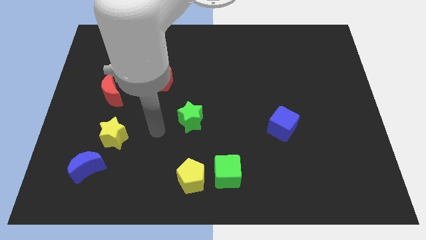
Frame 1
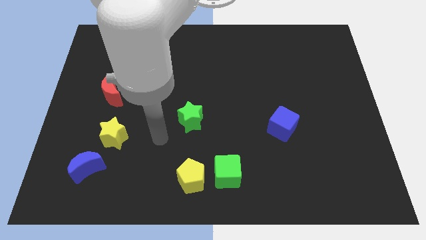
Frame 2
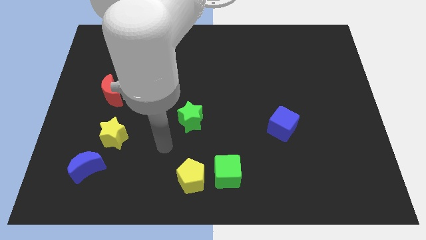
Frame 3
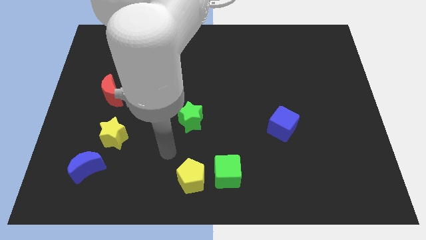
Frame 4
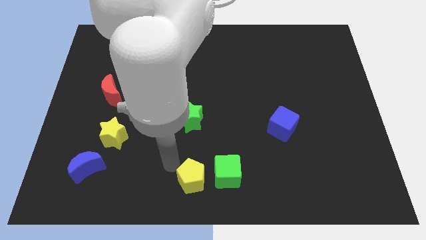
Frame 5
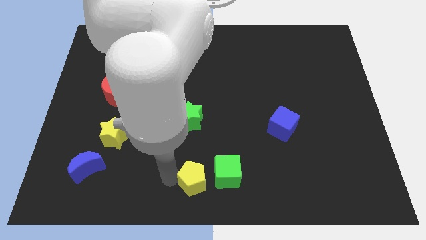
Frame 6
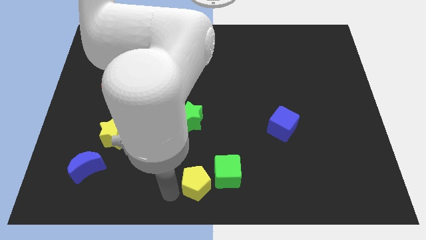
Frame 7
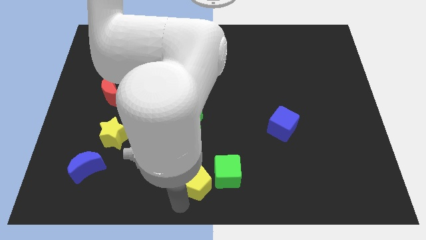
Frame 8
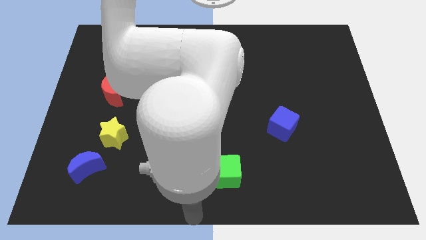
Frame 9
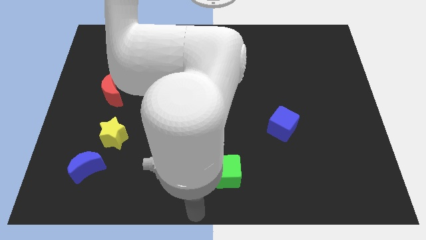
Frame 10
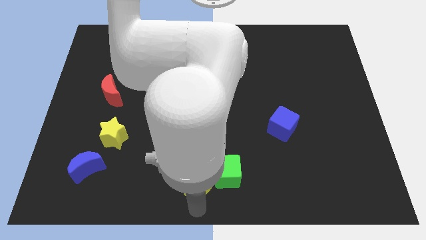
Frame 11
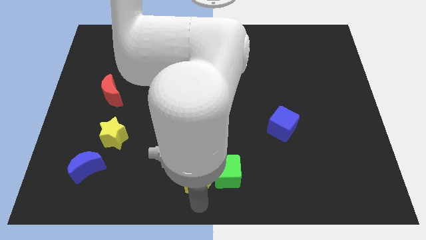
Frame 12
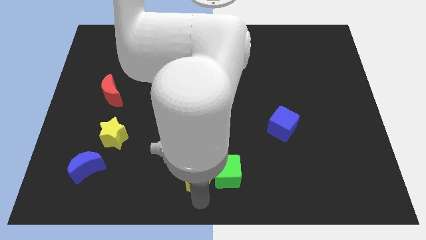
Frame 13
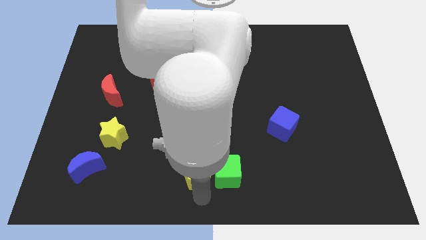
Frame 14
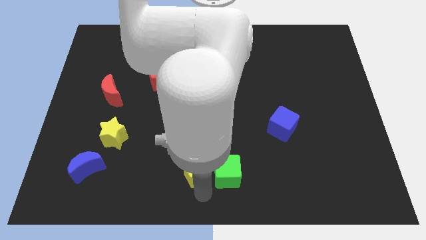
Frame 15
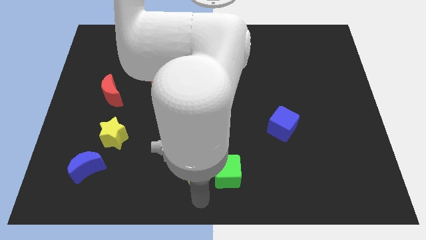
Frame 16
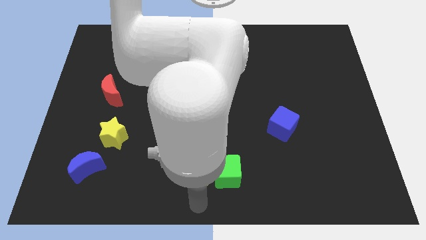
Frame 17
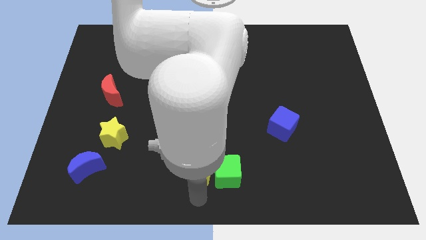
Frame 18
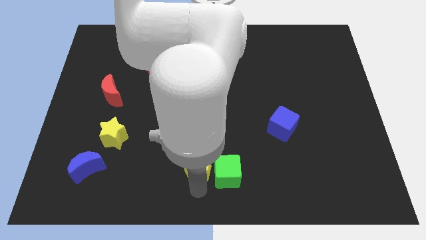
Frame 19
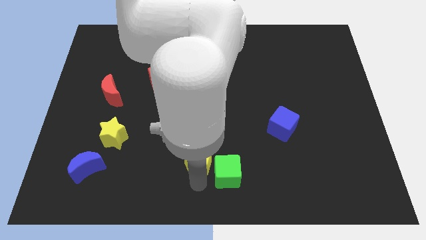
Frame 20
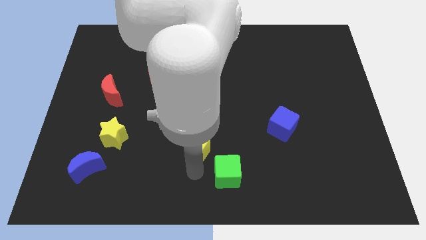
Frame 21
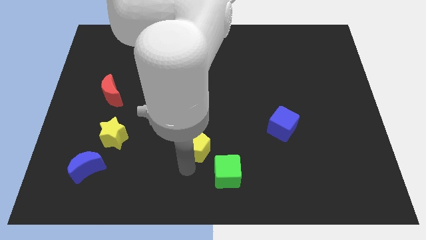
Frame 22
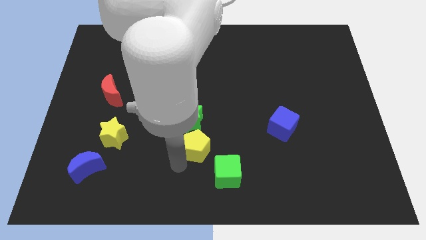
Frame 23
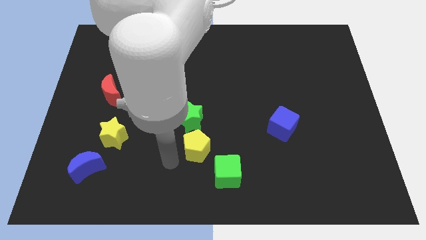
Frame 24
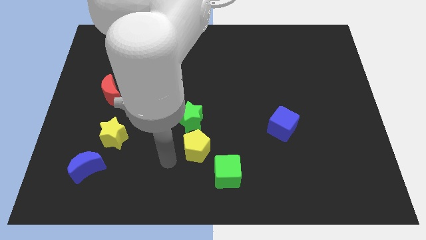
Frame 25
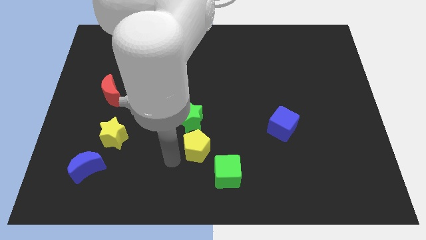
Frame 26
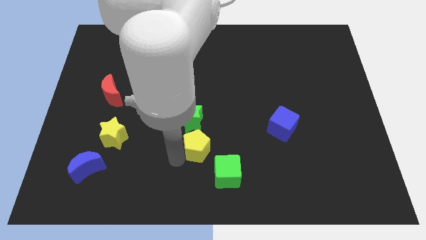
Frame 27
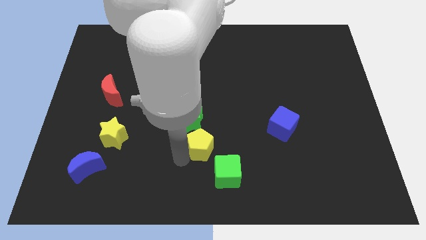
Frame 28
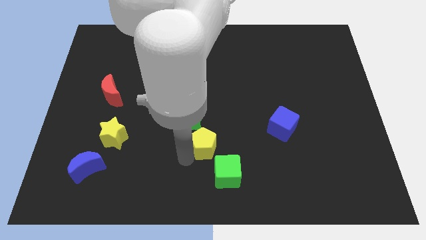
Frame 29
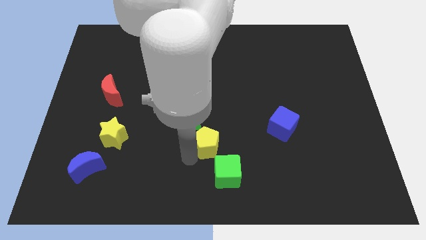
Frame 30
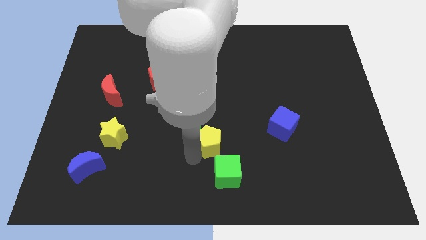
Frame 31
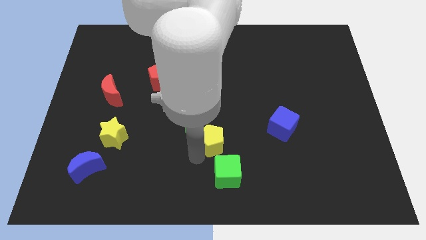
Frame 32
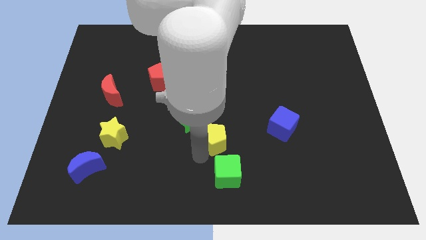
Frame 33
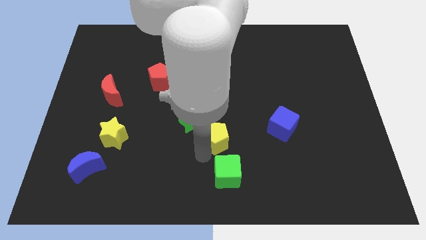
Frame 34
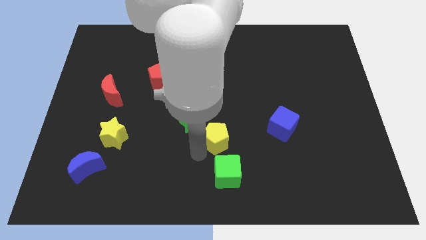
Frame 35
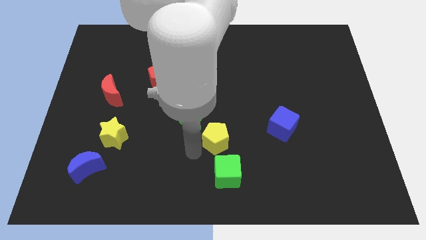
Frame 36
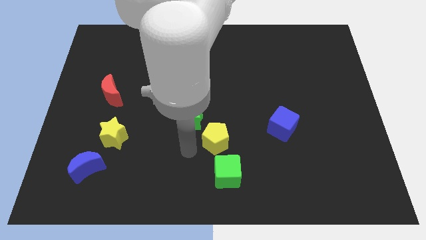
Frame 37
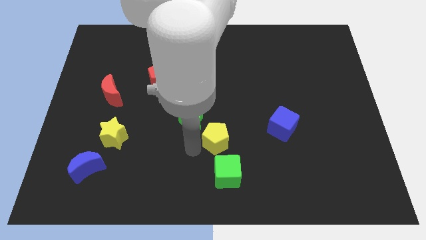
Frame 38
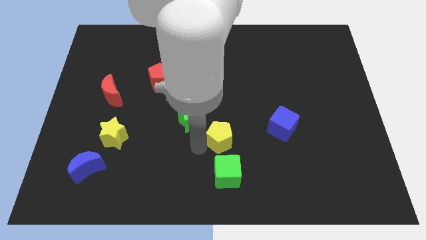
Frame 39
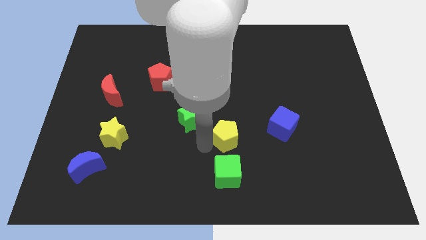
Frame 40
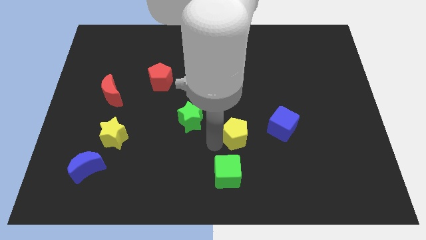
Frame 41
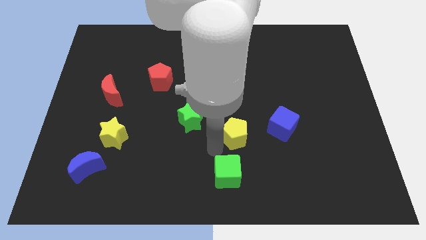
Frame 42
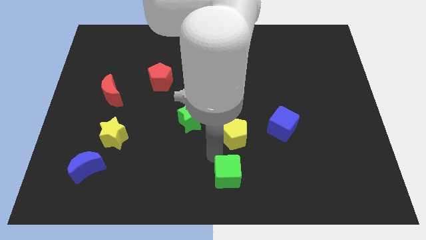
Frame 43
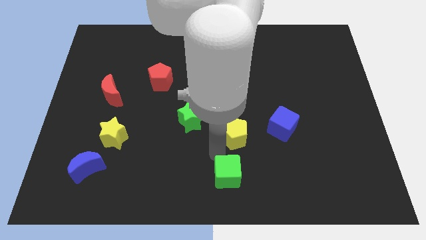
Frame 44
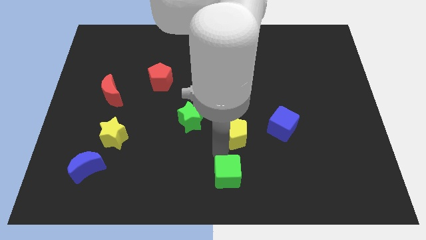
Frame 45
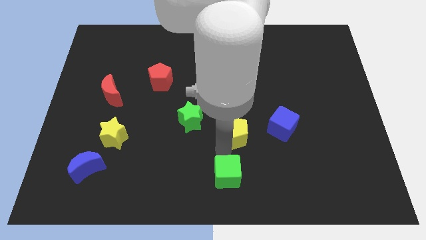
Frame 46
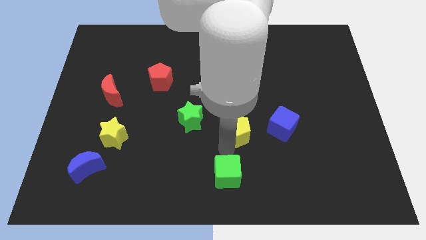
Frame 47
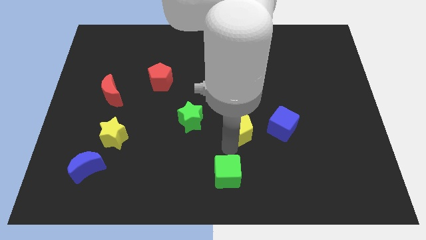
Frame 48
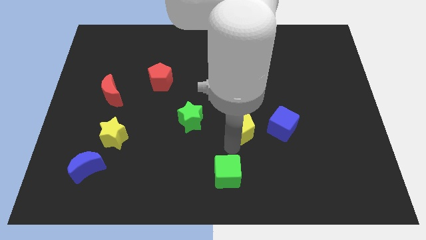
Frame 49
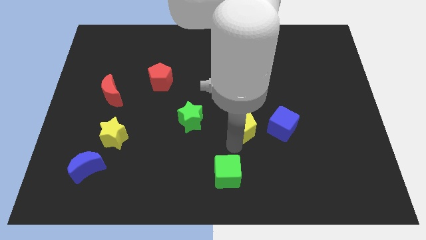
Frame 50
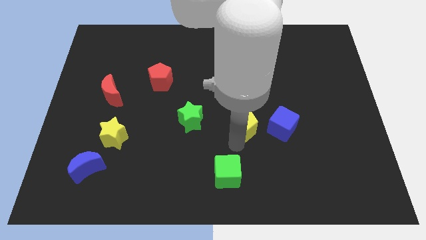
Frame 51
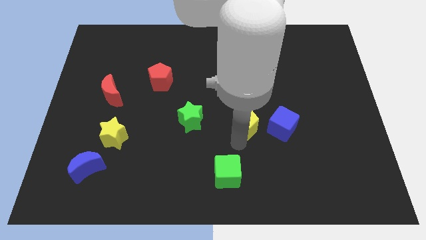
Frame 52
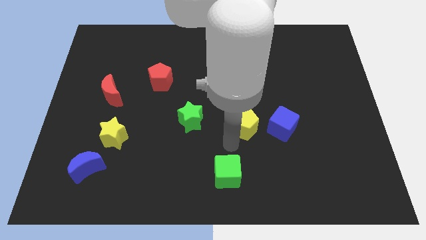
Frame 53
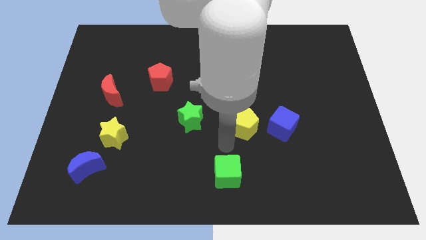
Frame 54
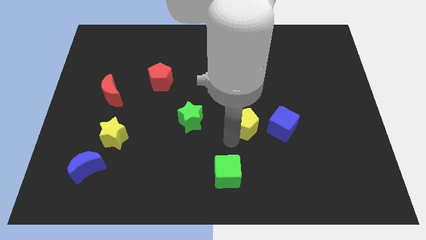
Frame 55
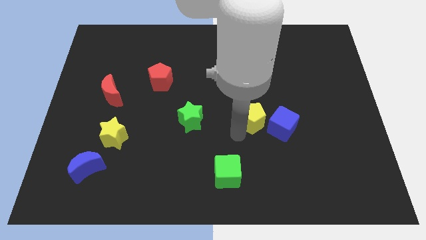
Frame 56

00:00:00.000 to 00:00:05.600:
move the yellow pentagon up and then right

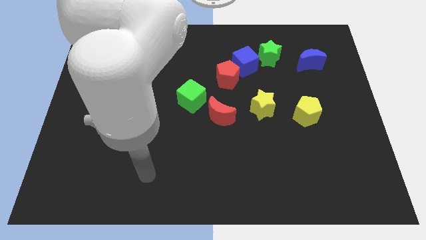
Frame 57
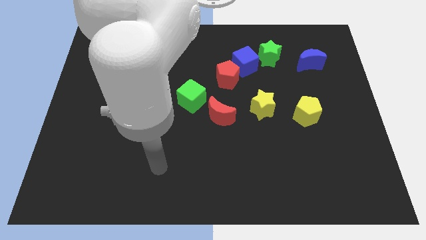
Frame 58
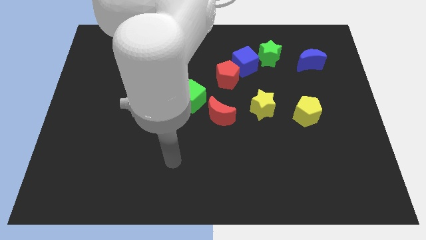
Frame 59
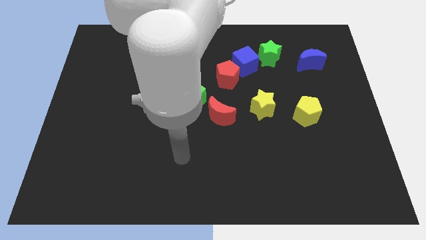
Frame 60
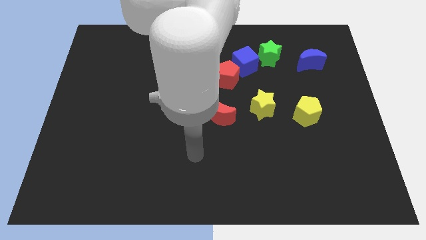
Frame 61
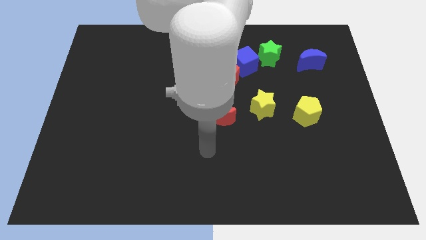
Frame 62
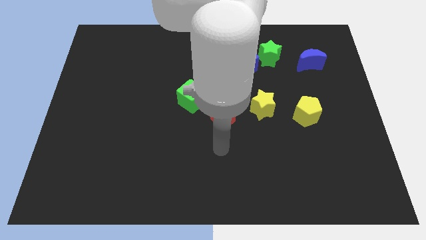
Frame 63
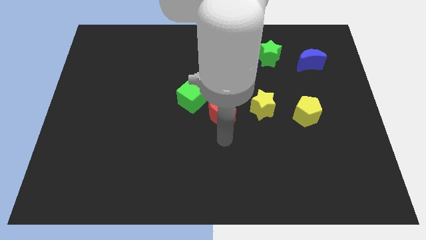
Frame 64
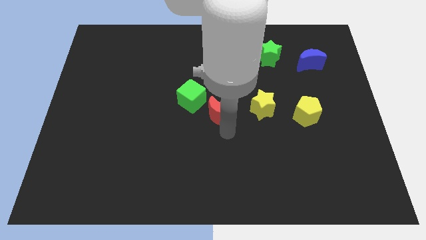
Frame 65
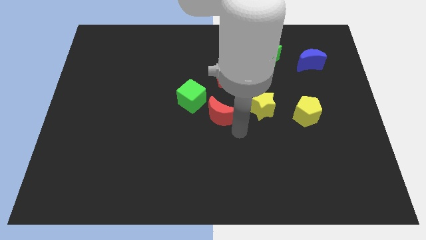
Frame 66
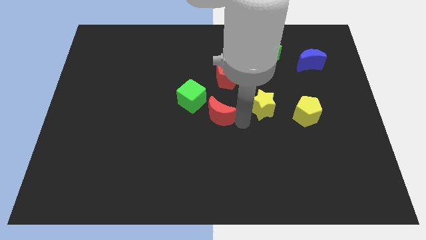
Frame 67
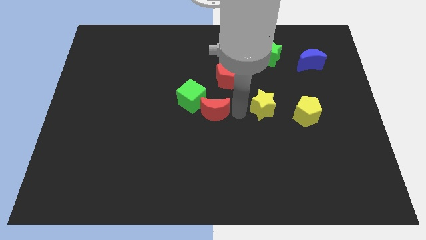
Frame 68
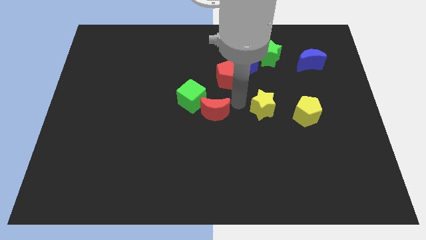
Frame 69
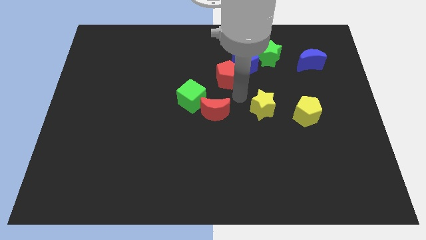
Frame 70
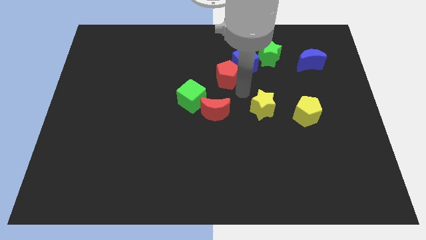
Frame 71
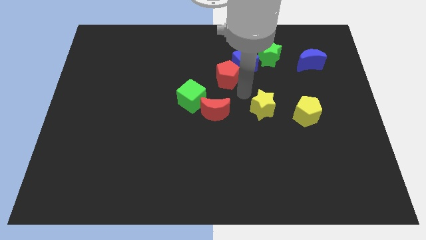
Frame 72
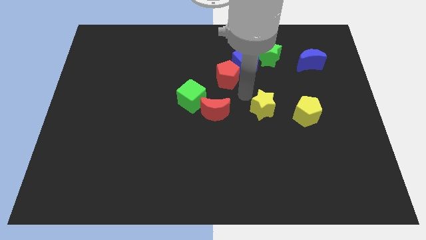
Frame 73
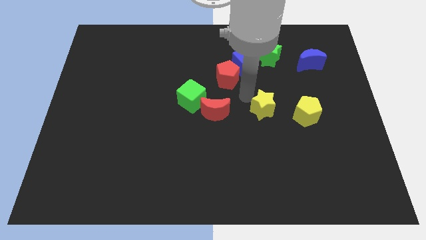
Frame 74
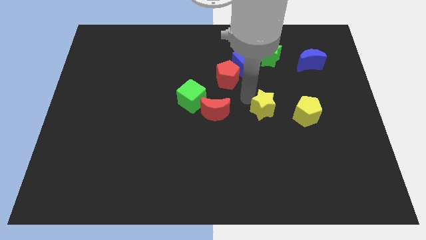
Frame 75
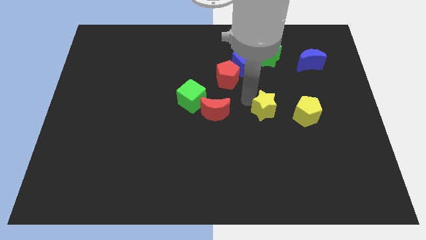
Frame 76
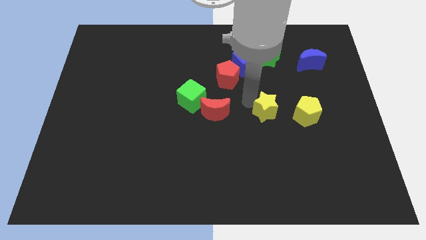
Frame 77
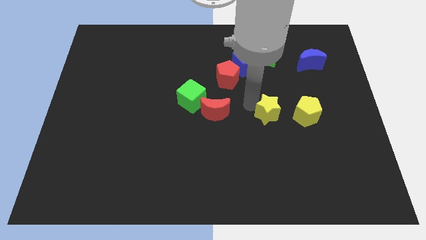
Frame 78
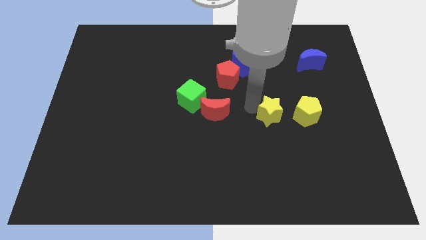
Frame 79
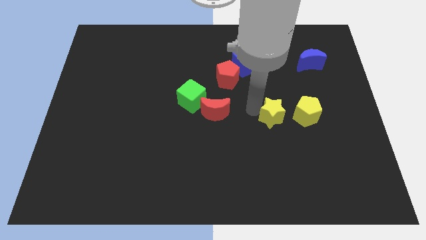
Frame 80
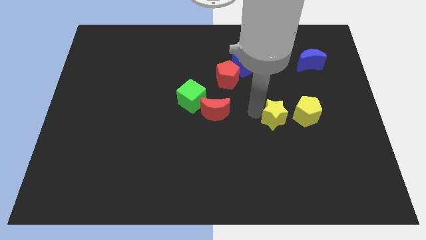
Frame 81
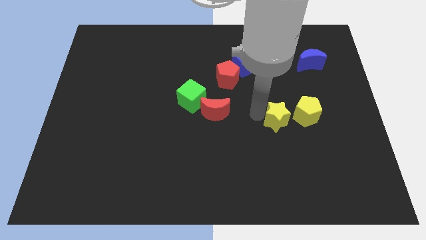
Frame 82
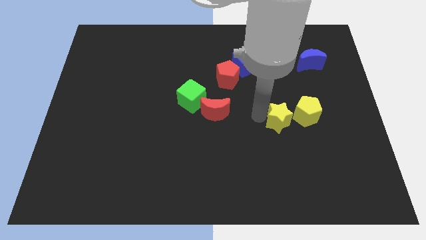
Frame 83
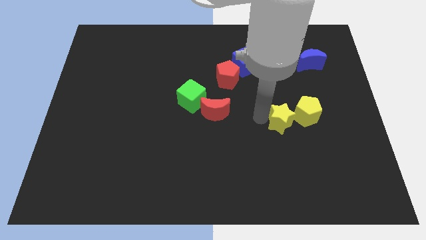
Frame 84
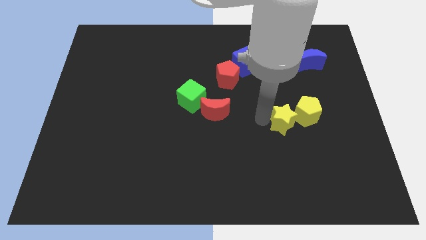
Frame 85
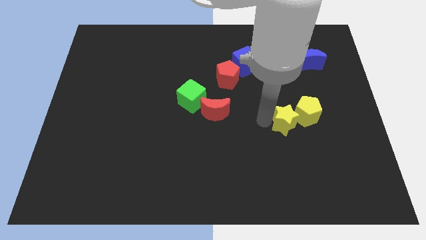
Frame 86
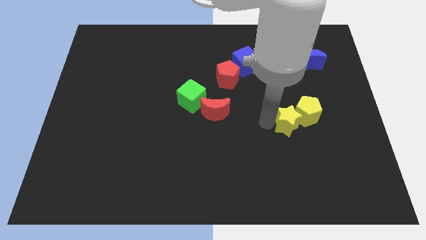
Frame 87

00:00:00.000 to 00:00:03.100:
slightly move the yellow star down and right diagonally
